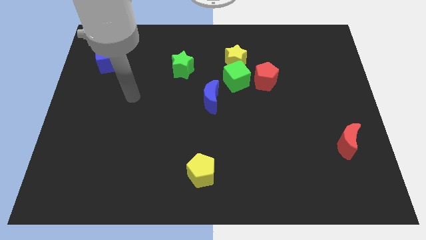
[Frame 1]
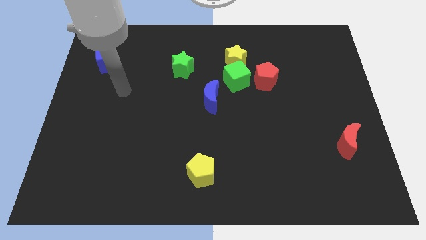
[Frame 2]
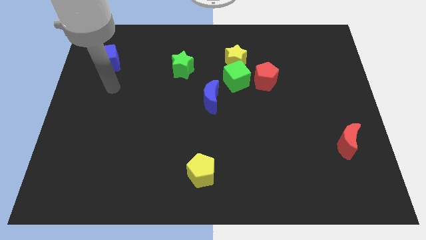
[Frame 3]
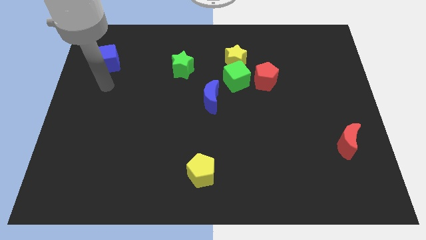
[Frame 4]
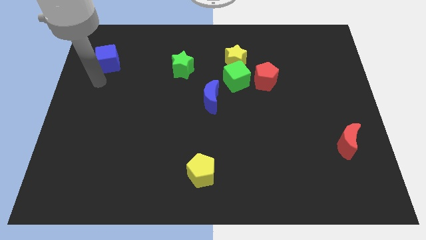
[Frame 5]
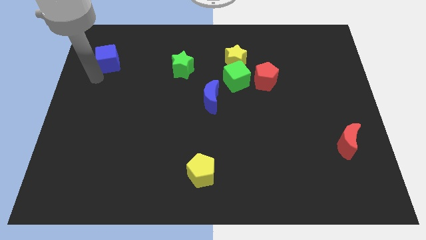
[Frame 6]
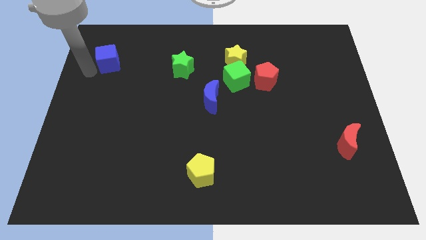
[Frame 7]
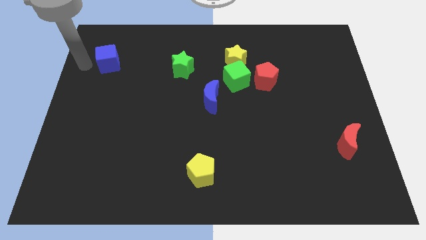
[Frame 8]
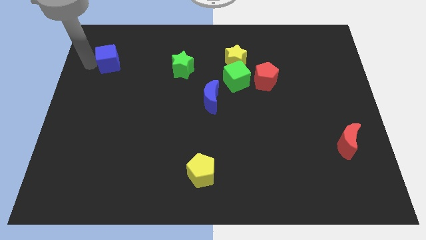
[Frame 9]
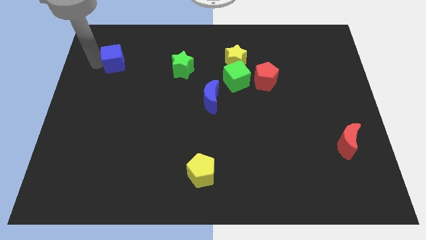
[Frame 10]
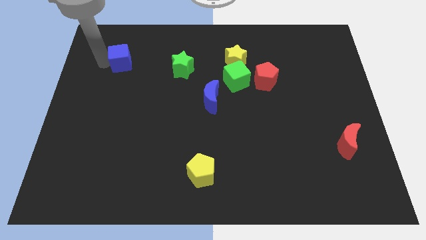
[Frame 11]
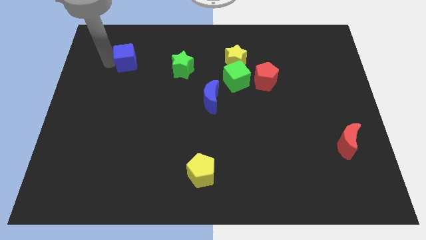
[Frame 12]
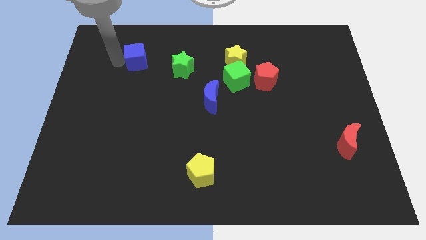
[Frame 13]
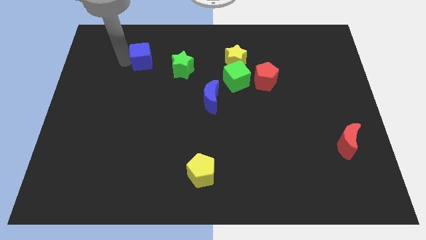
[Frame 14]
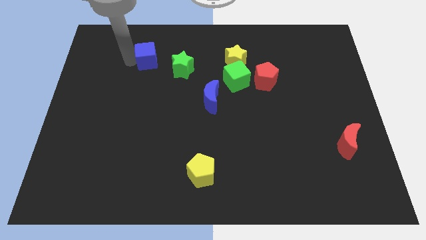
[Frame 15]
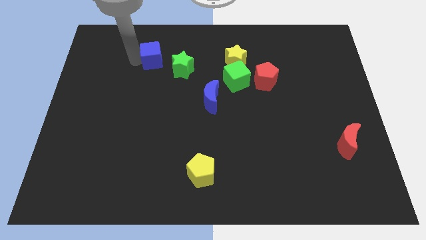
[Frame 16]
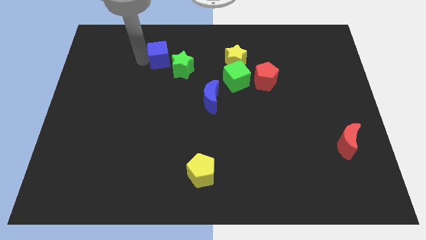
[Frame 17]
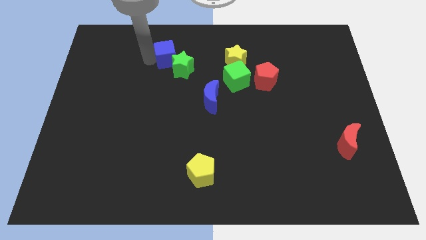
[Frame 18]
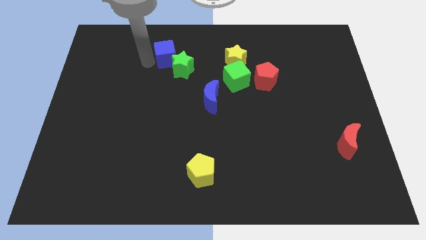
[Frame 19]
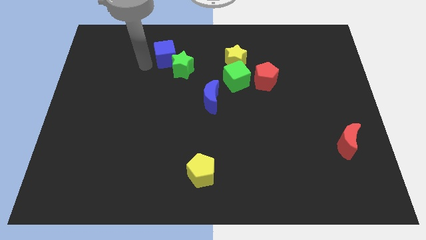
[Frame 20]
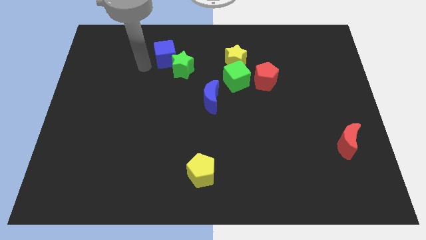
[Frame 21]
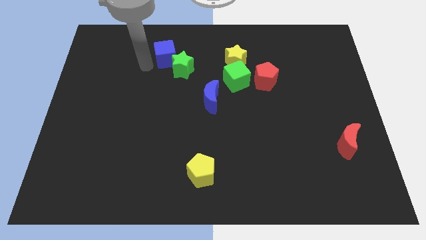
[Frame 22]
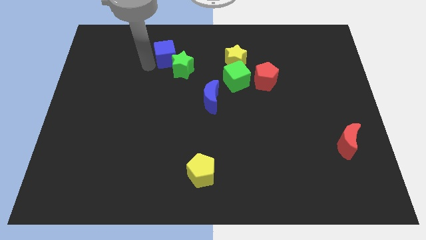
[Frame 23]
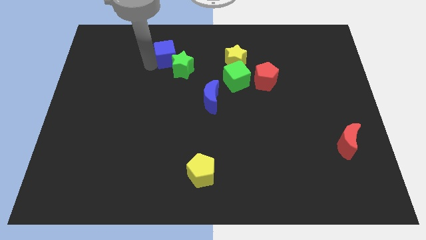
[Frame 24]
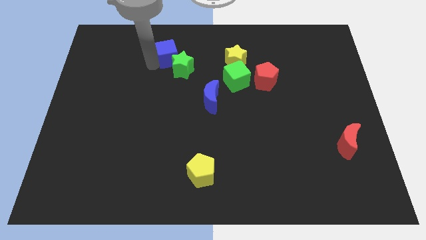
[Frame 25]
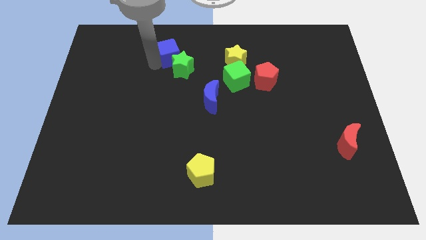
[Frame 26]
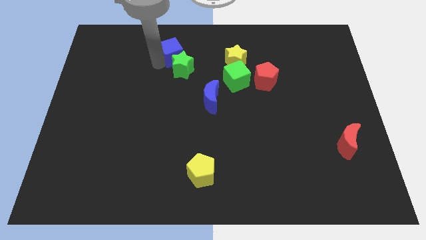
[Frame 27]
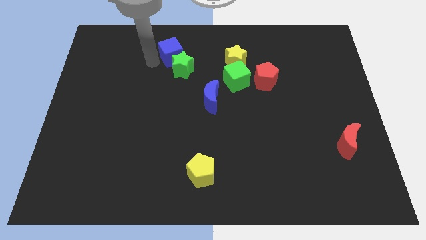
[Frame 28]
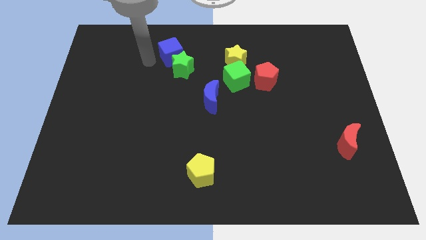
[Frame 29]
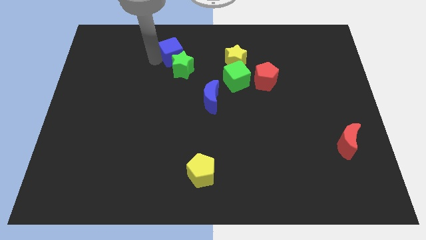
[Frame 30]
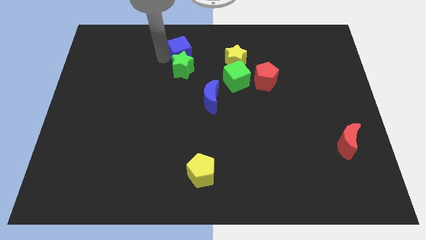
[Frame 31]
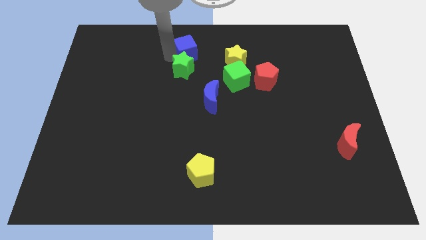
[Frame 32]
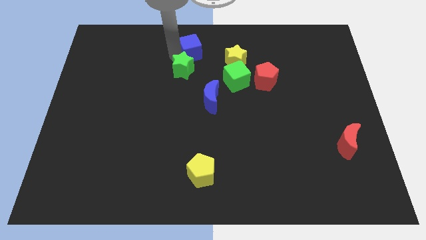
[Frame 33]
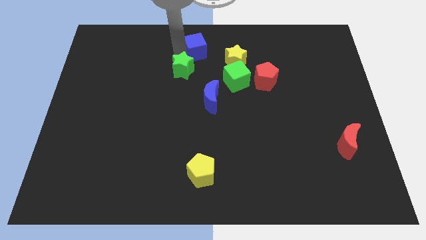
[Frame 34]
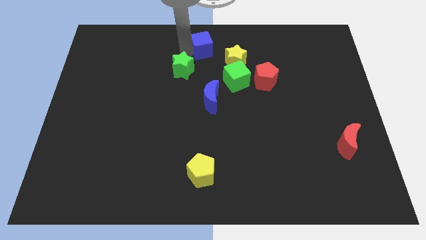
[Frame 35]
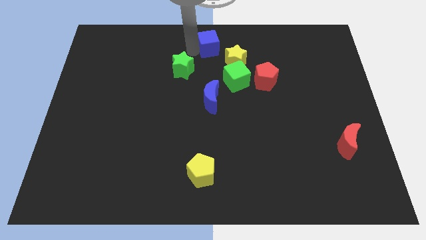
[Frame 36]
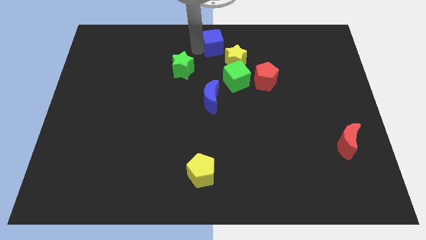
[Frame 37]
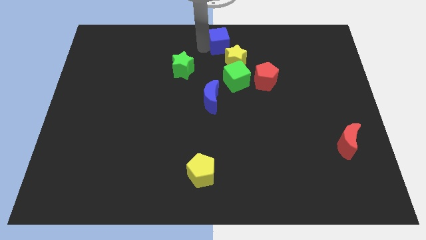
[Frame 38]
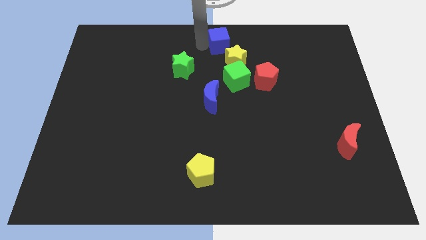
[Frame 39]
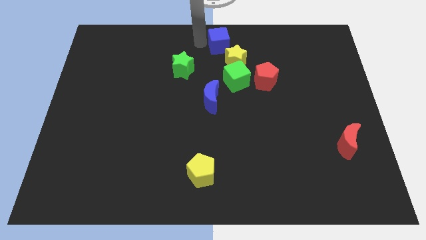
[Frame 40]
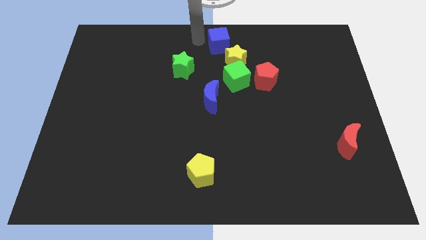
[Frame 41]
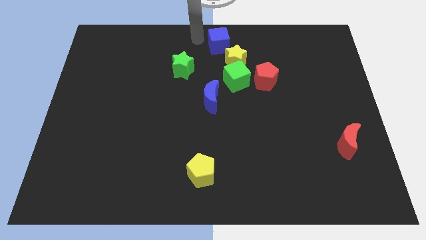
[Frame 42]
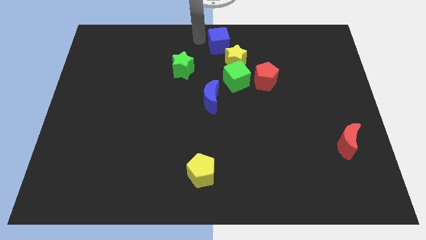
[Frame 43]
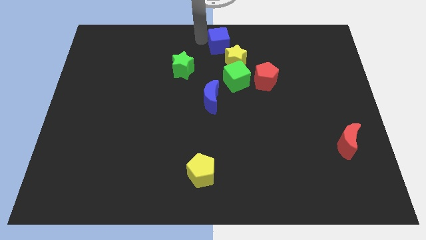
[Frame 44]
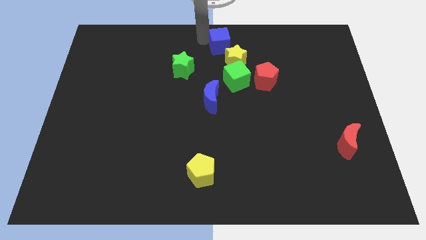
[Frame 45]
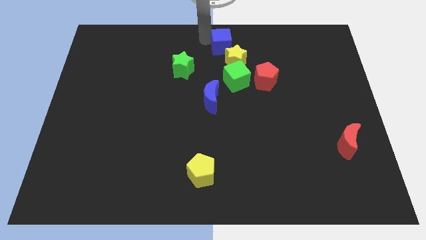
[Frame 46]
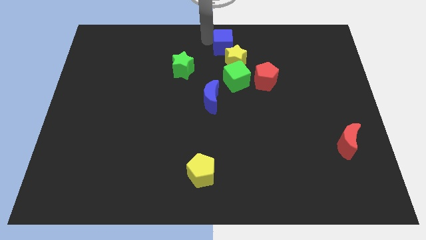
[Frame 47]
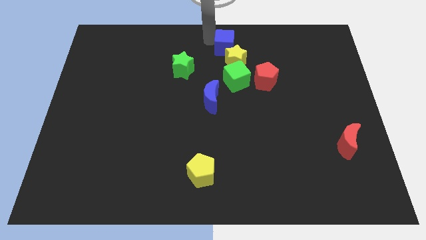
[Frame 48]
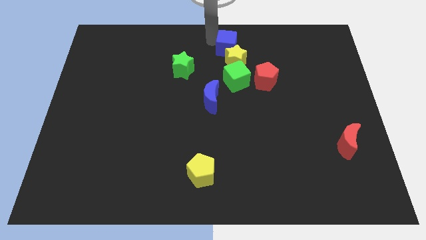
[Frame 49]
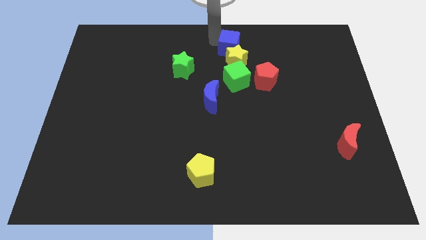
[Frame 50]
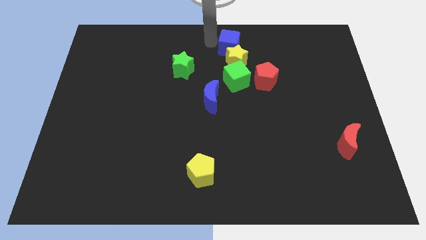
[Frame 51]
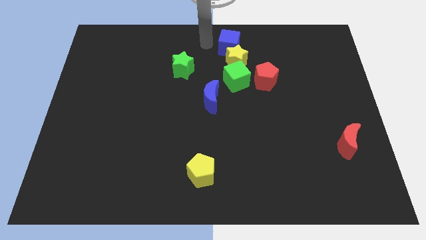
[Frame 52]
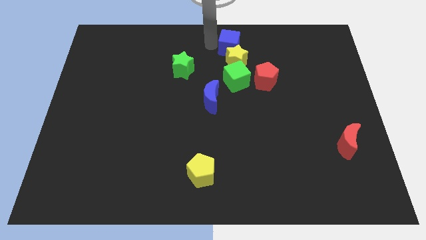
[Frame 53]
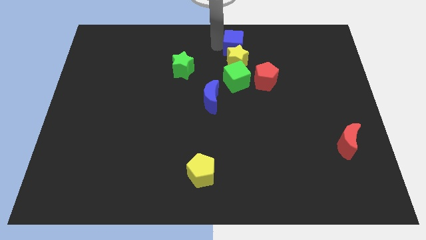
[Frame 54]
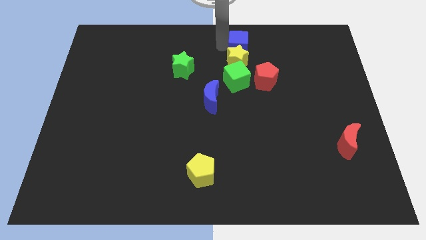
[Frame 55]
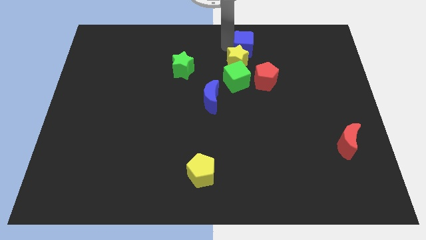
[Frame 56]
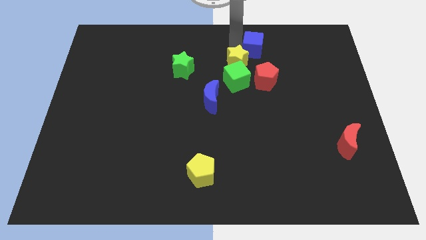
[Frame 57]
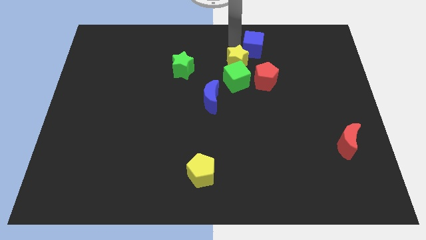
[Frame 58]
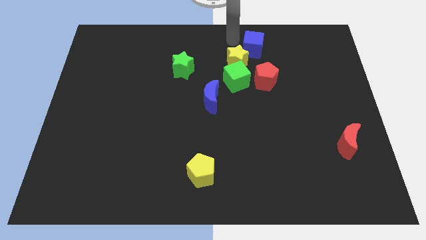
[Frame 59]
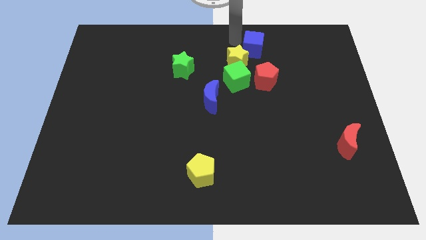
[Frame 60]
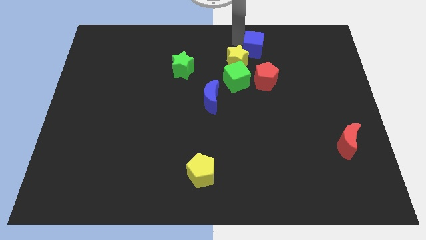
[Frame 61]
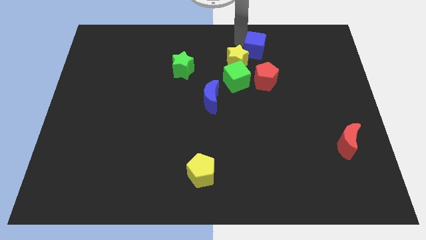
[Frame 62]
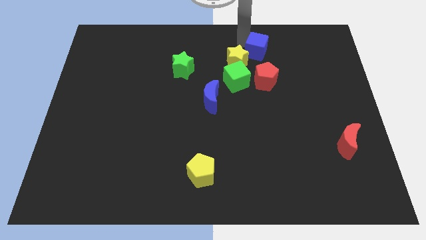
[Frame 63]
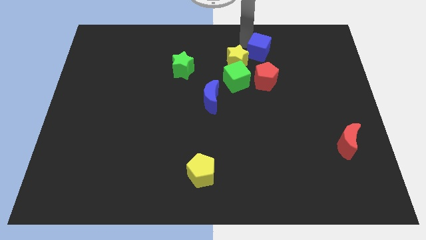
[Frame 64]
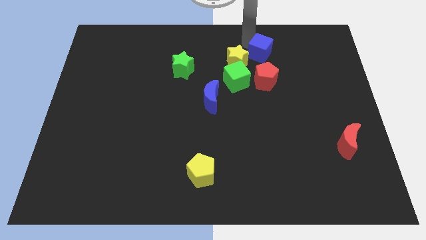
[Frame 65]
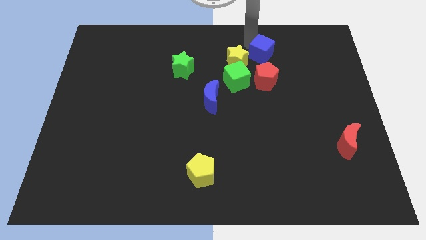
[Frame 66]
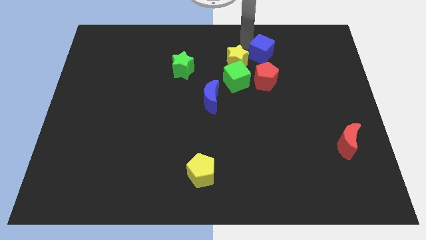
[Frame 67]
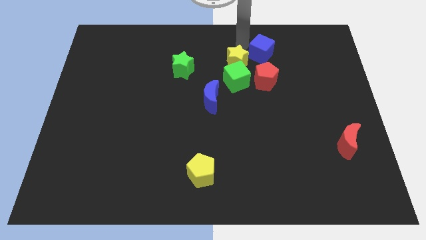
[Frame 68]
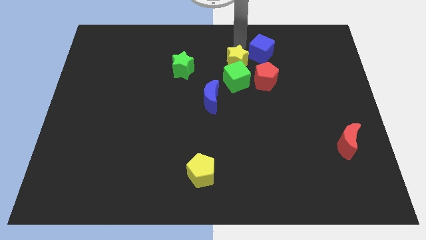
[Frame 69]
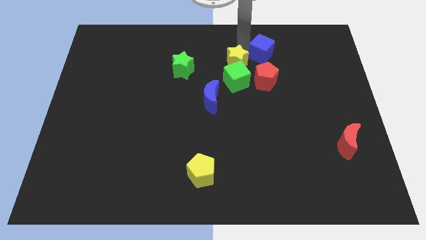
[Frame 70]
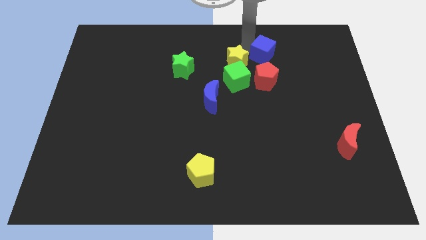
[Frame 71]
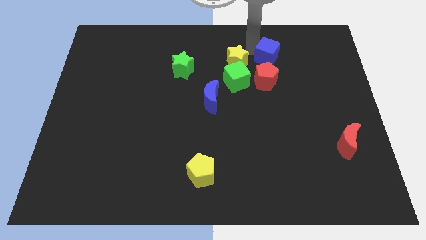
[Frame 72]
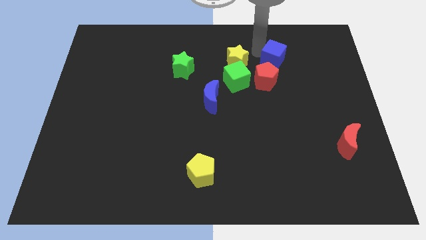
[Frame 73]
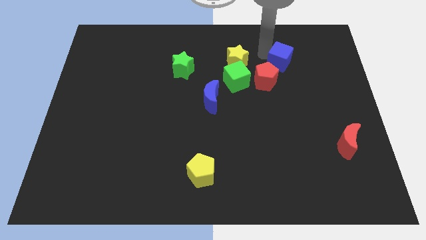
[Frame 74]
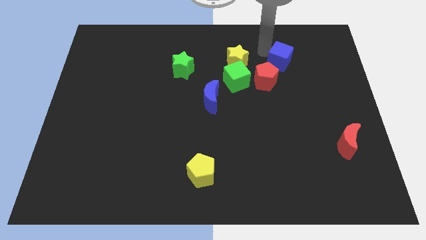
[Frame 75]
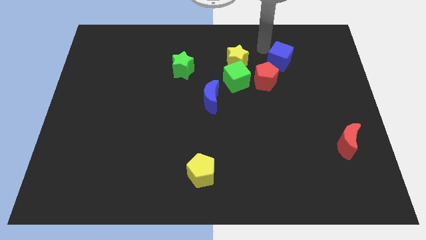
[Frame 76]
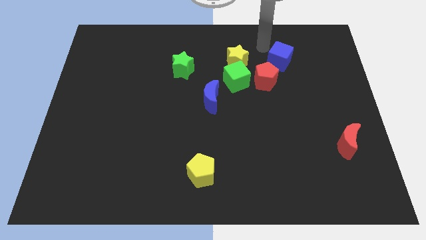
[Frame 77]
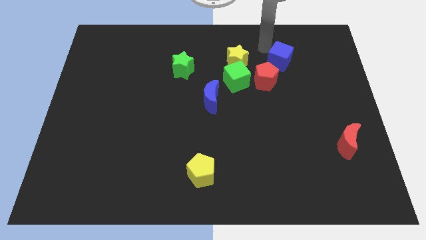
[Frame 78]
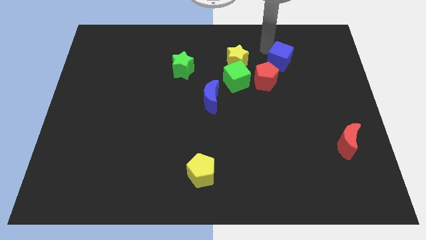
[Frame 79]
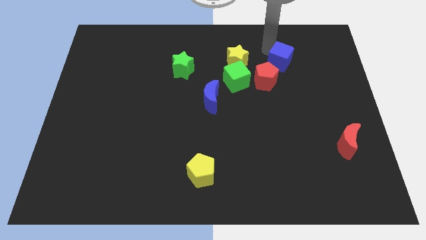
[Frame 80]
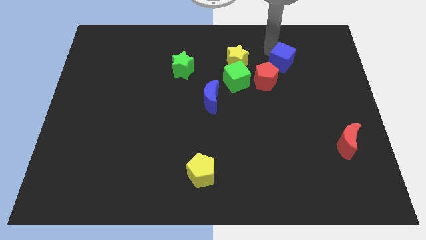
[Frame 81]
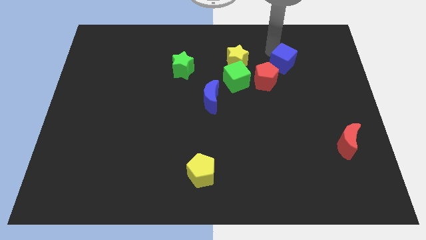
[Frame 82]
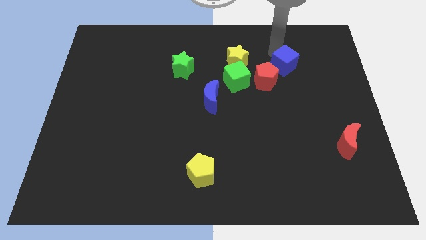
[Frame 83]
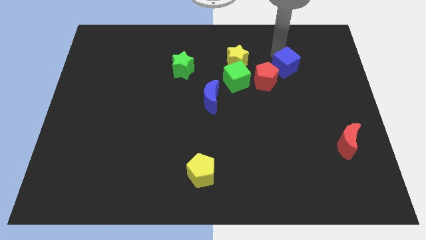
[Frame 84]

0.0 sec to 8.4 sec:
slide the blue cube to the right side of the red pentagon
